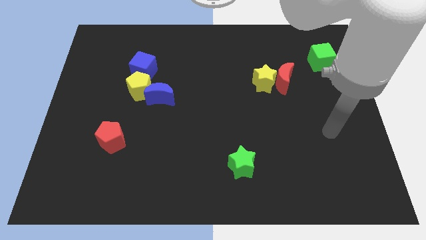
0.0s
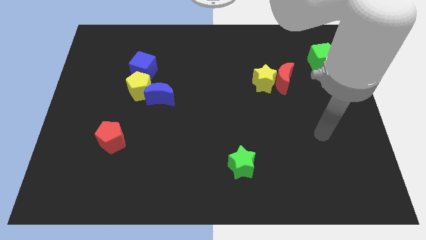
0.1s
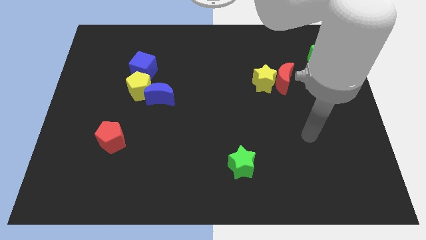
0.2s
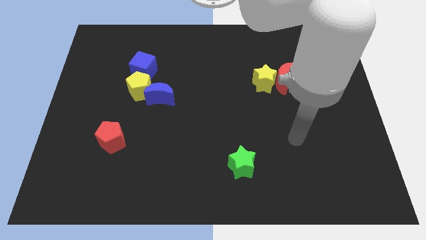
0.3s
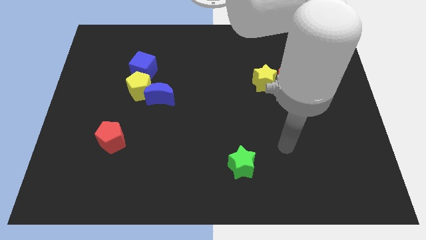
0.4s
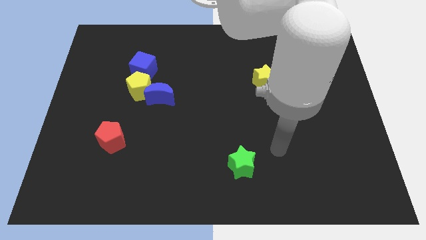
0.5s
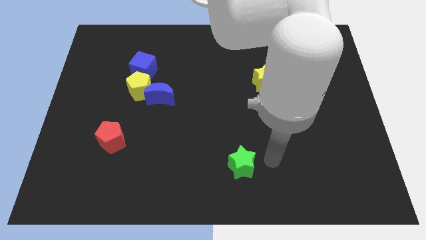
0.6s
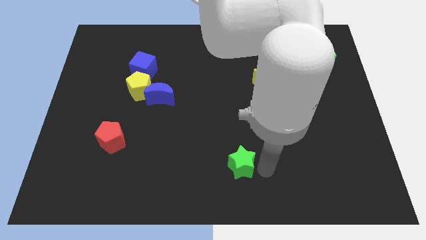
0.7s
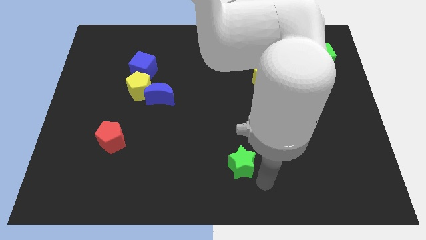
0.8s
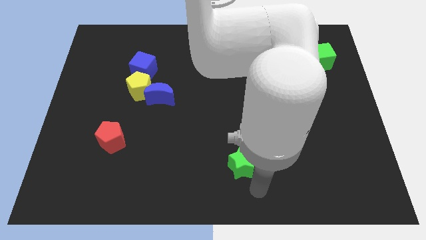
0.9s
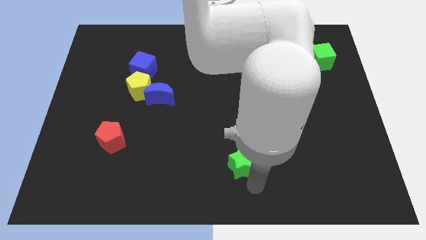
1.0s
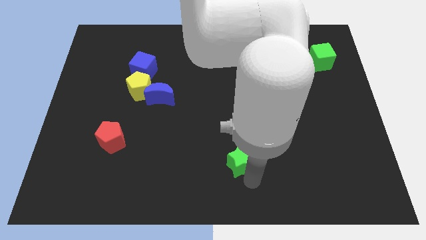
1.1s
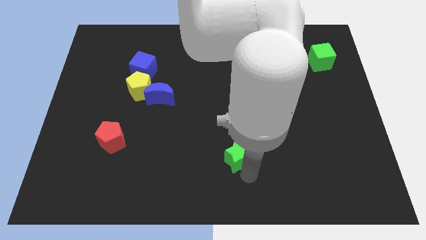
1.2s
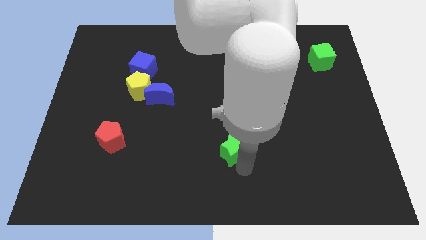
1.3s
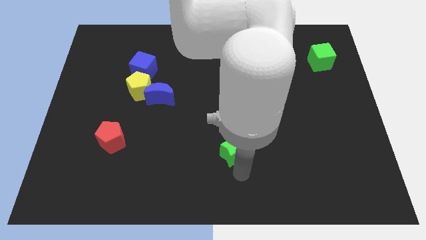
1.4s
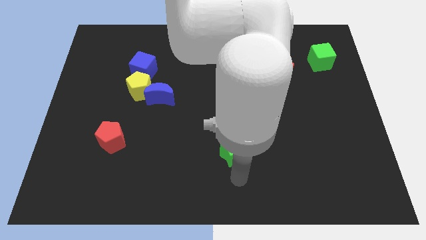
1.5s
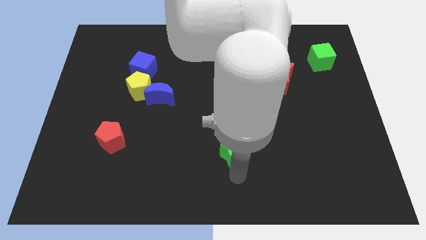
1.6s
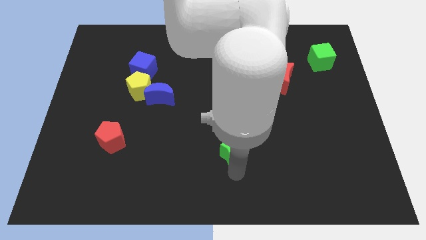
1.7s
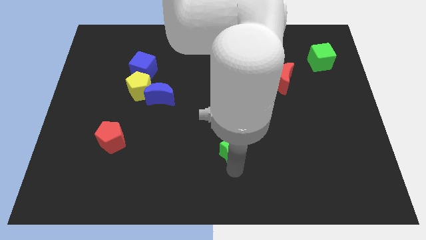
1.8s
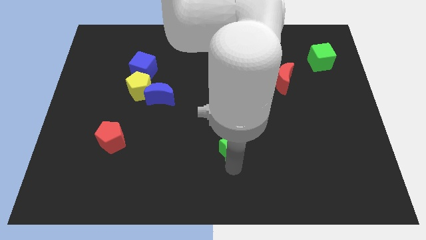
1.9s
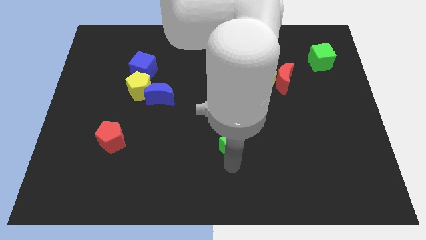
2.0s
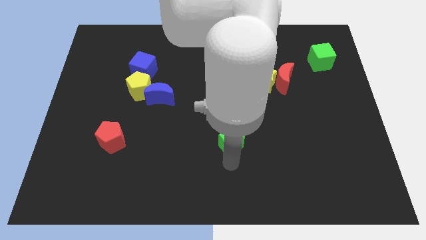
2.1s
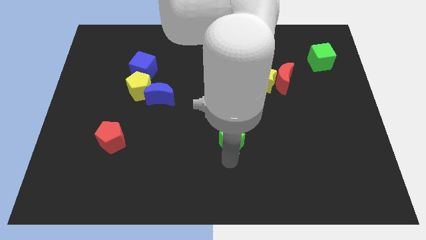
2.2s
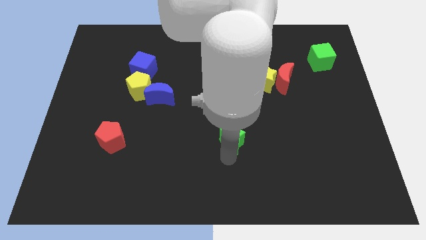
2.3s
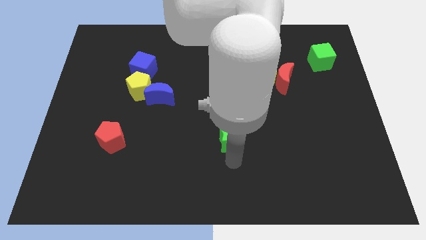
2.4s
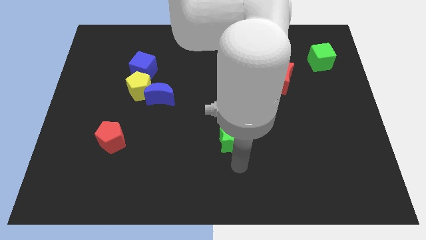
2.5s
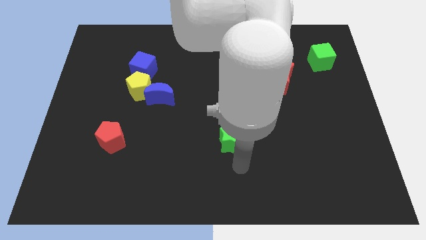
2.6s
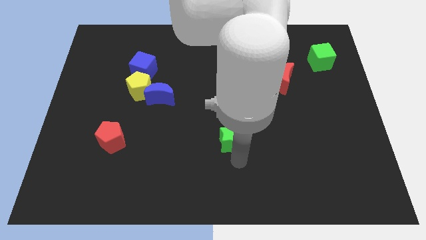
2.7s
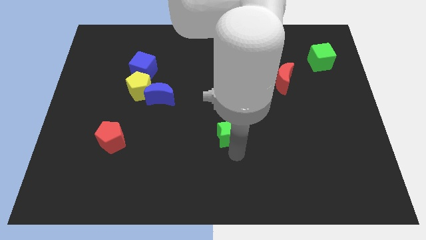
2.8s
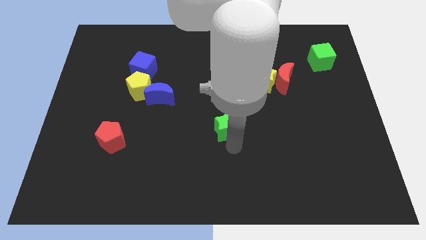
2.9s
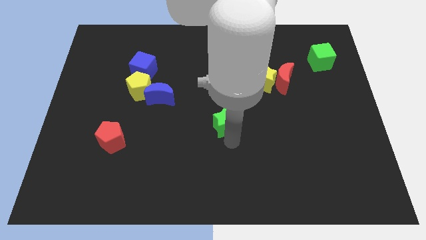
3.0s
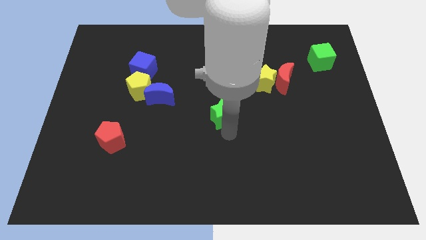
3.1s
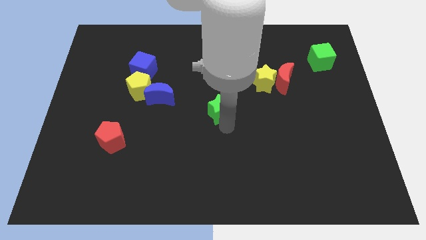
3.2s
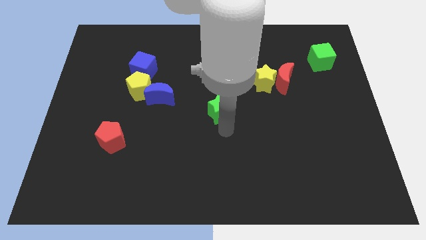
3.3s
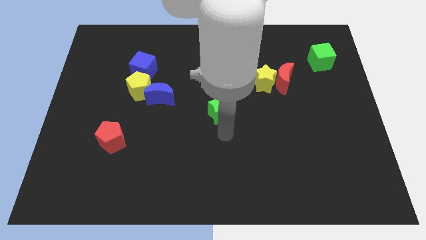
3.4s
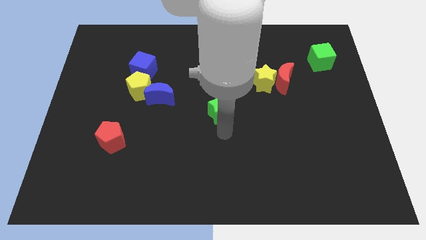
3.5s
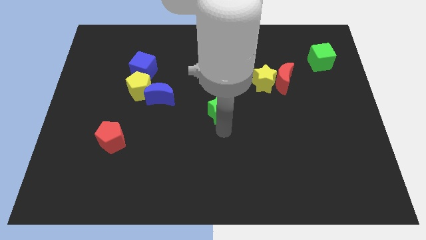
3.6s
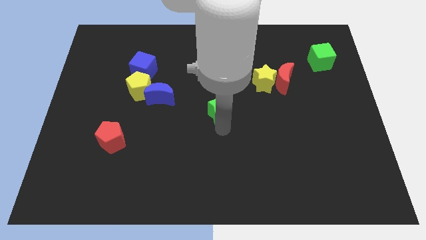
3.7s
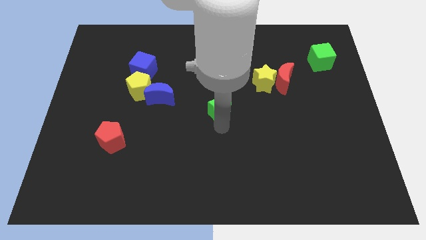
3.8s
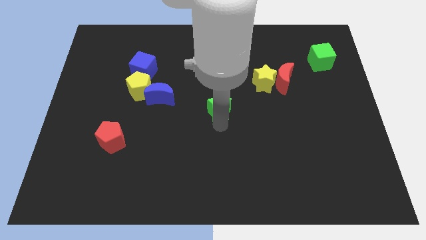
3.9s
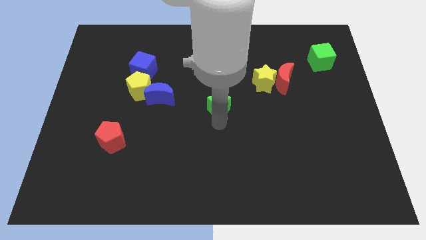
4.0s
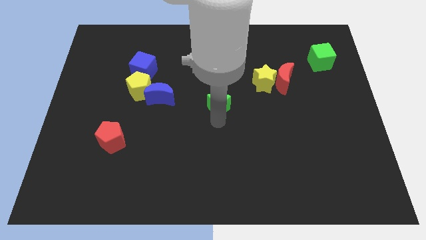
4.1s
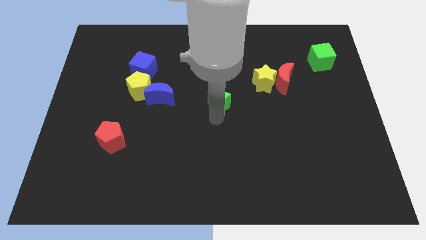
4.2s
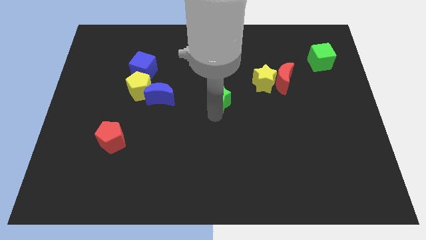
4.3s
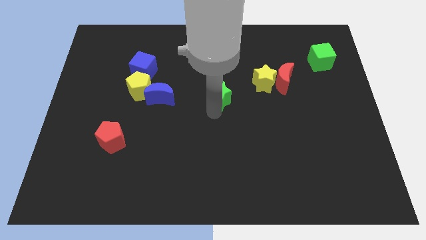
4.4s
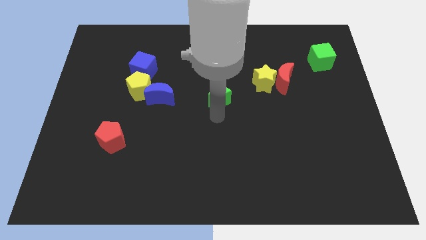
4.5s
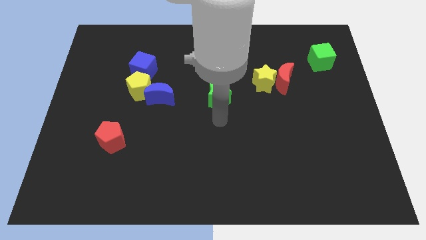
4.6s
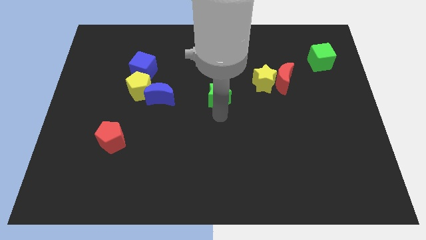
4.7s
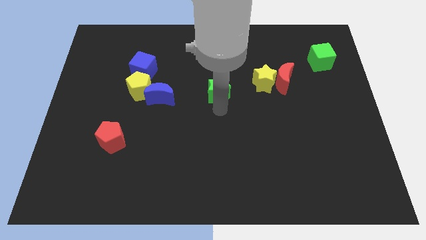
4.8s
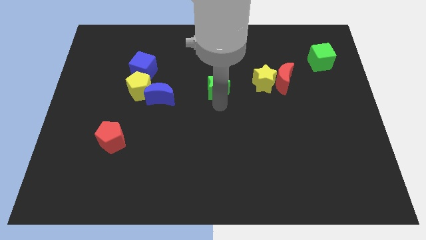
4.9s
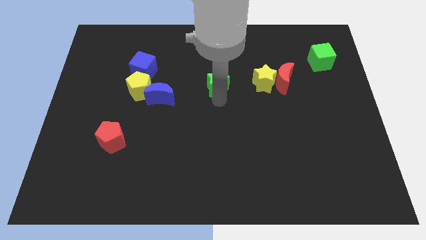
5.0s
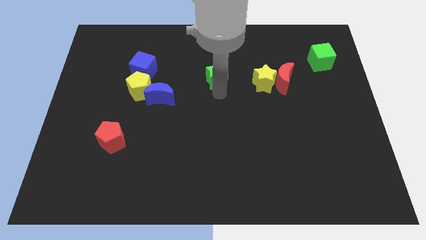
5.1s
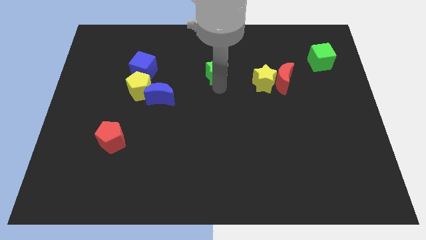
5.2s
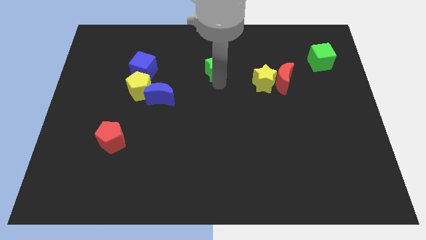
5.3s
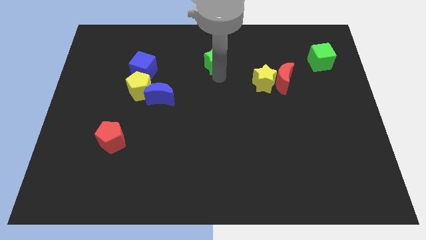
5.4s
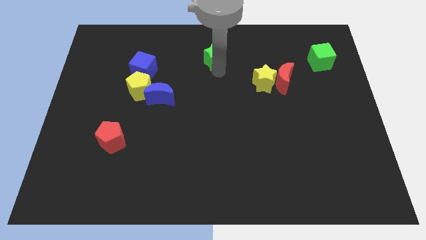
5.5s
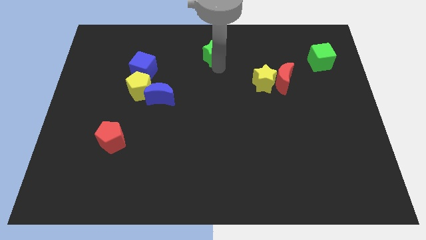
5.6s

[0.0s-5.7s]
push the green star to the top side
